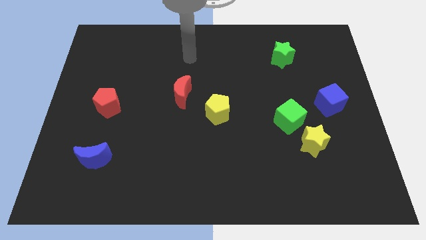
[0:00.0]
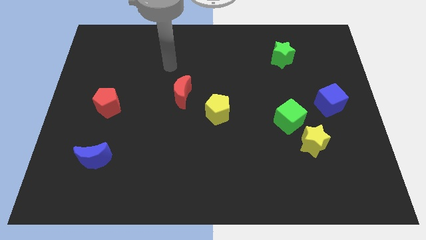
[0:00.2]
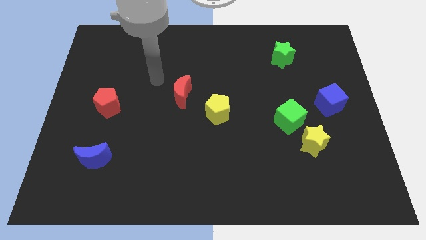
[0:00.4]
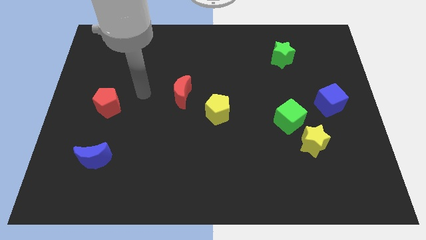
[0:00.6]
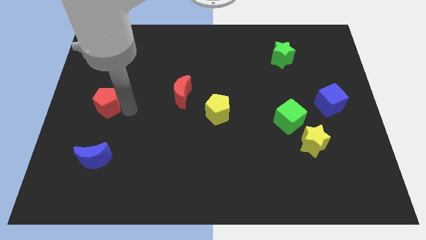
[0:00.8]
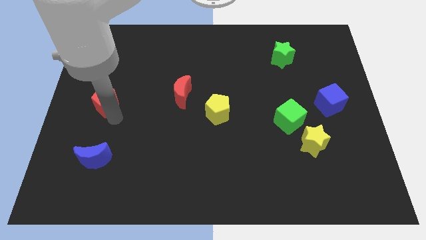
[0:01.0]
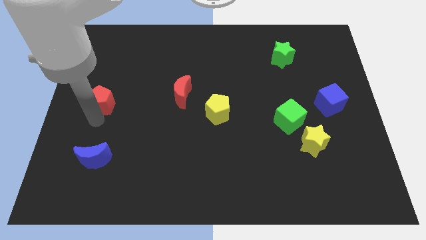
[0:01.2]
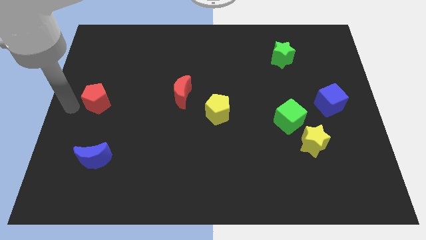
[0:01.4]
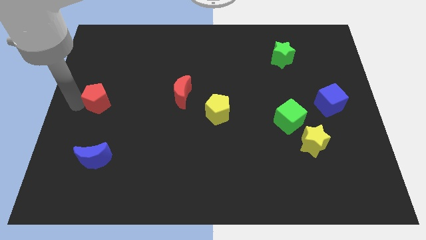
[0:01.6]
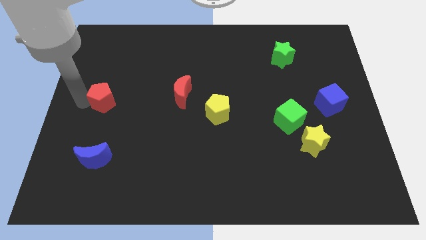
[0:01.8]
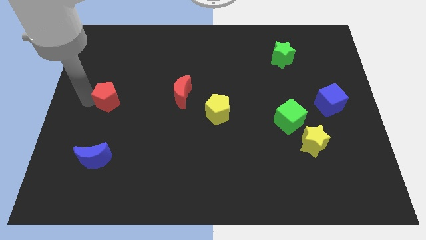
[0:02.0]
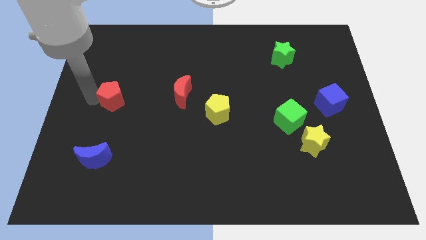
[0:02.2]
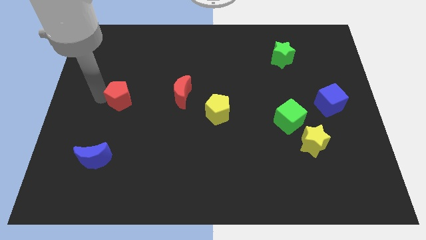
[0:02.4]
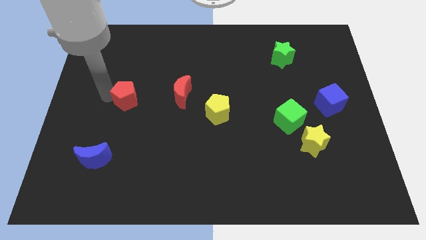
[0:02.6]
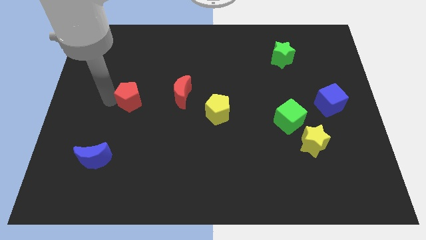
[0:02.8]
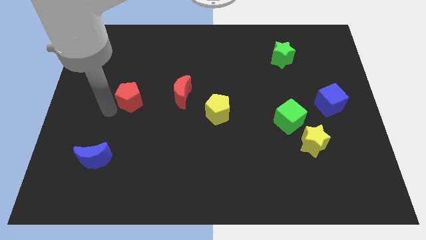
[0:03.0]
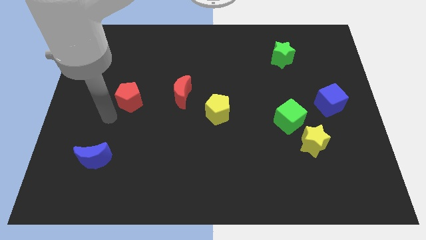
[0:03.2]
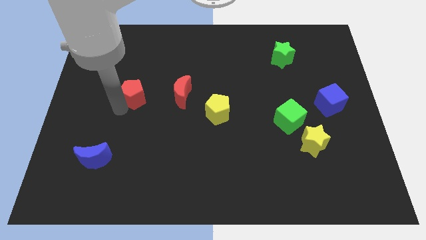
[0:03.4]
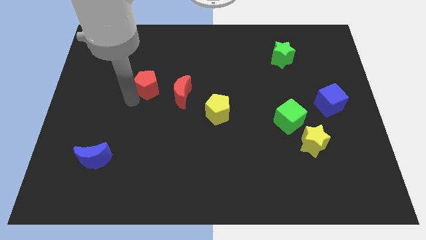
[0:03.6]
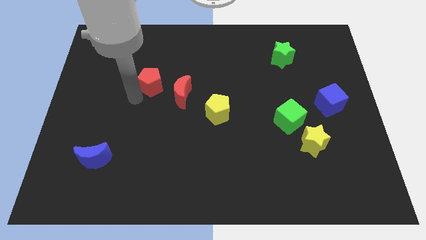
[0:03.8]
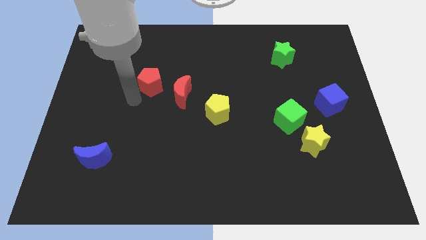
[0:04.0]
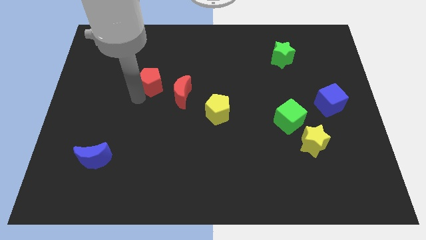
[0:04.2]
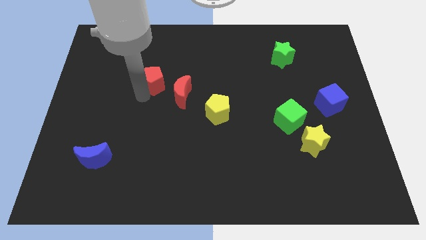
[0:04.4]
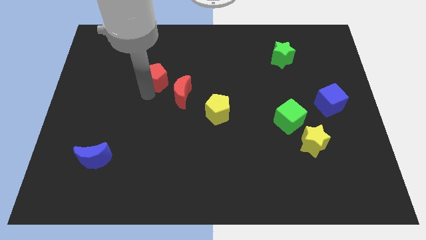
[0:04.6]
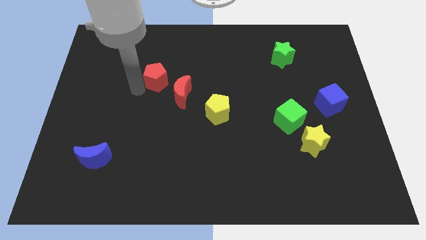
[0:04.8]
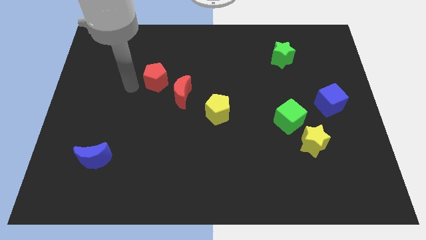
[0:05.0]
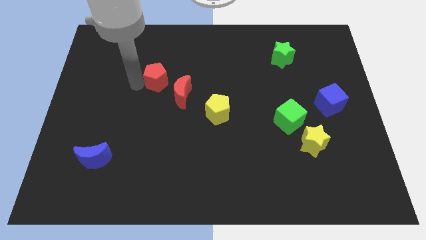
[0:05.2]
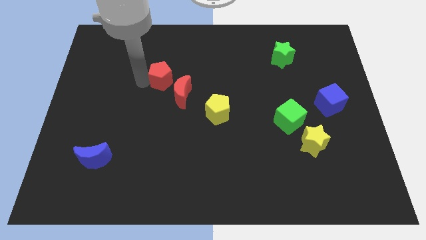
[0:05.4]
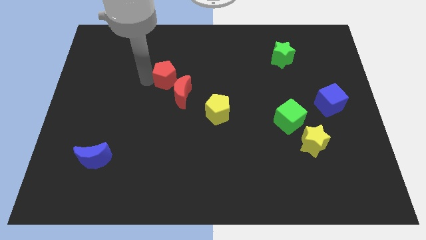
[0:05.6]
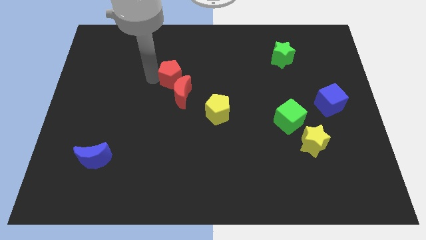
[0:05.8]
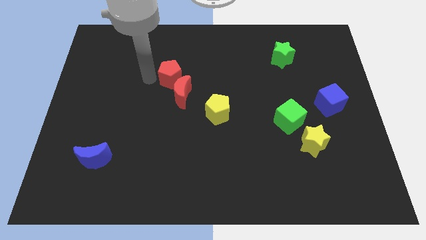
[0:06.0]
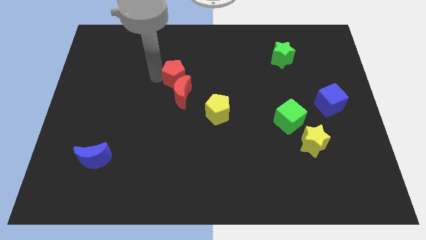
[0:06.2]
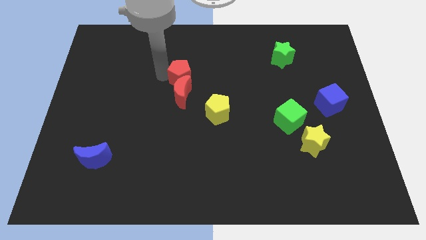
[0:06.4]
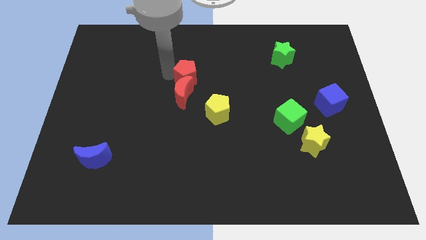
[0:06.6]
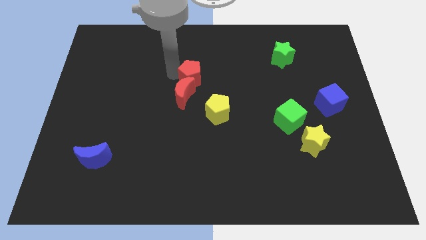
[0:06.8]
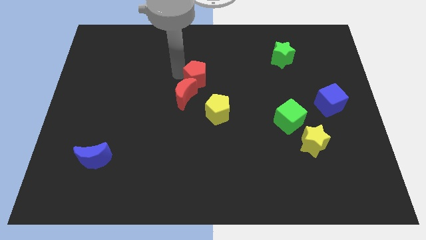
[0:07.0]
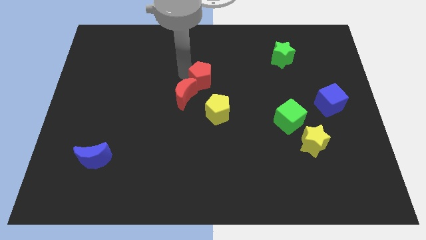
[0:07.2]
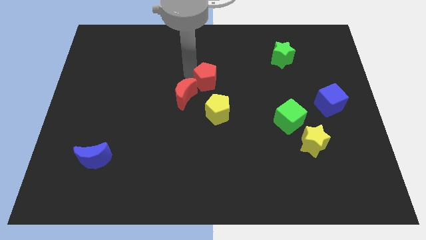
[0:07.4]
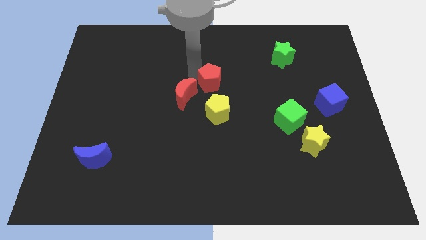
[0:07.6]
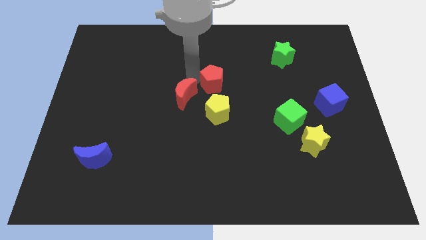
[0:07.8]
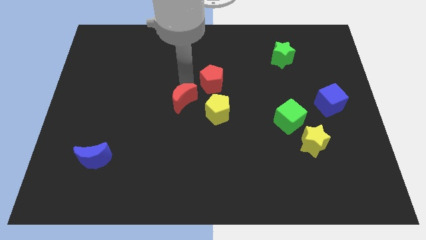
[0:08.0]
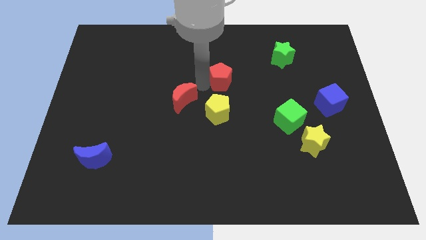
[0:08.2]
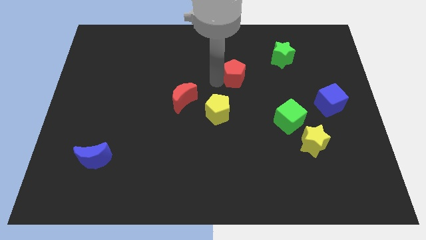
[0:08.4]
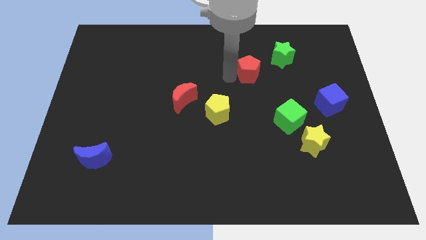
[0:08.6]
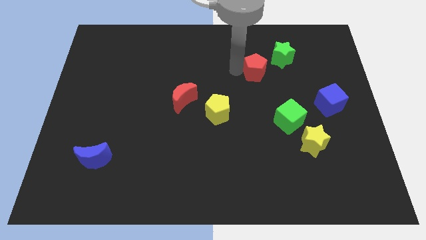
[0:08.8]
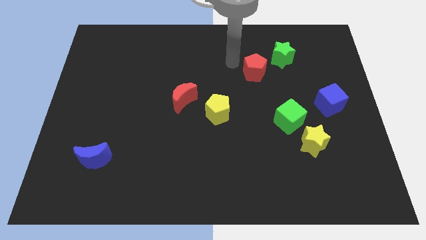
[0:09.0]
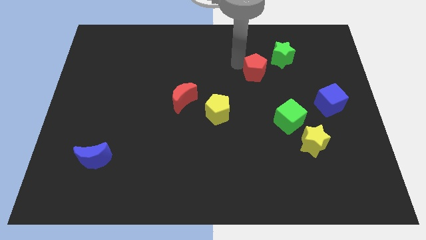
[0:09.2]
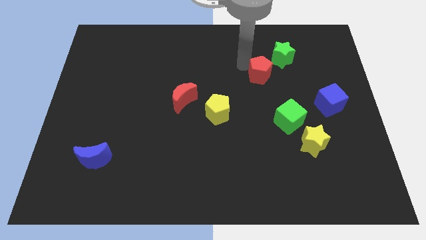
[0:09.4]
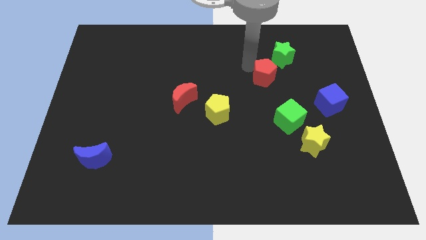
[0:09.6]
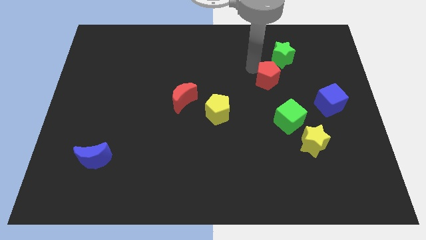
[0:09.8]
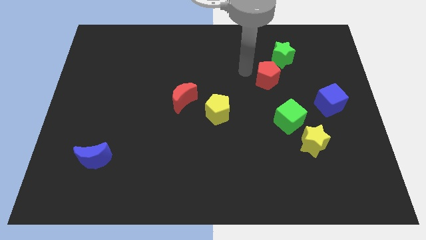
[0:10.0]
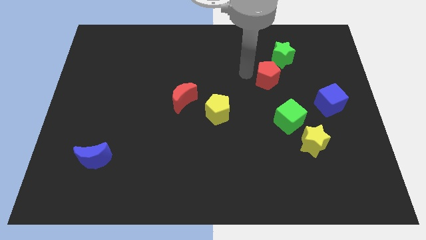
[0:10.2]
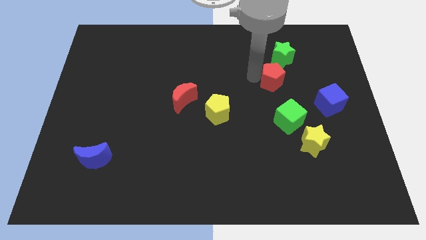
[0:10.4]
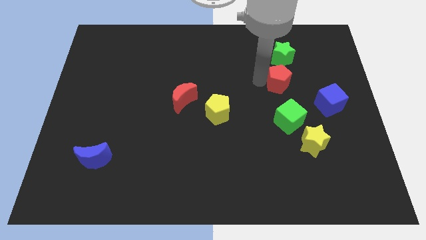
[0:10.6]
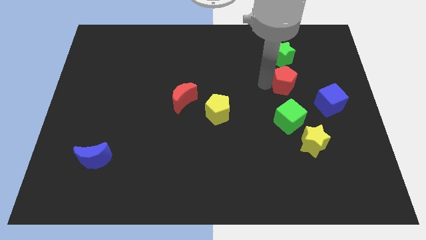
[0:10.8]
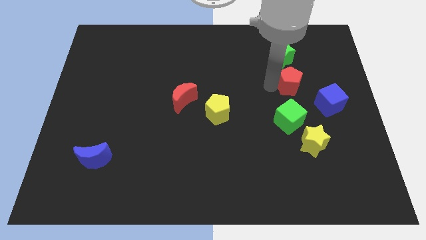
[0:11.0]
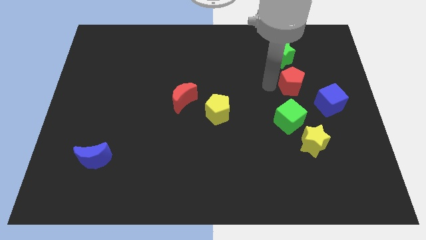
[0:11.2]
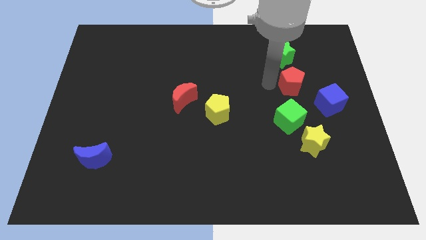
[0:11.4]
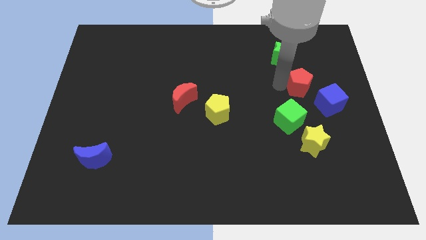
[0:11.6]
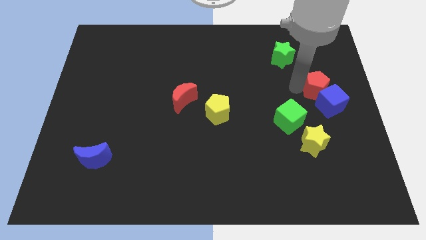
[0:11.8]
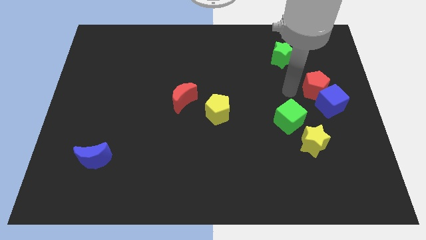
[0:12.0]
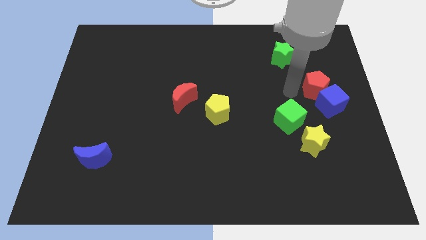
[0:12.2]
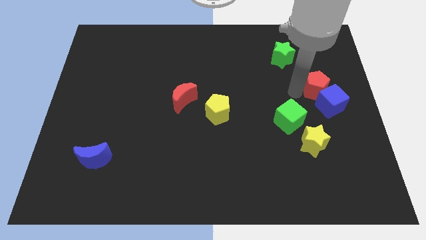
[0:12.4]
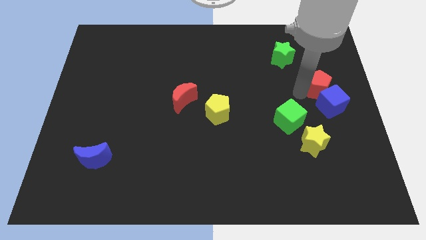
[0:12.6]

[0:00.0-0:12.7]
move the red pentagon to the right side of the board
